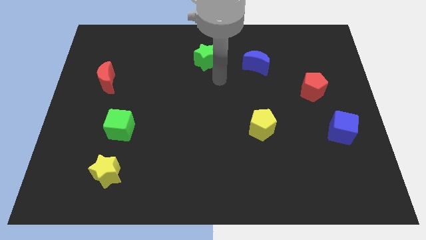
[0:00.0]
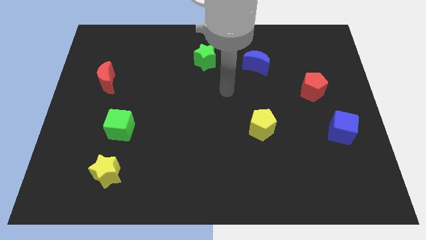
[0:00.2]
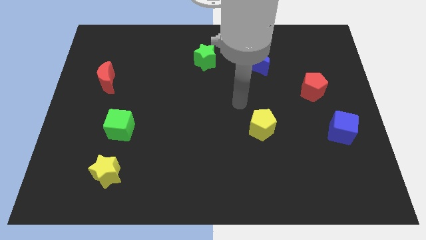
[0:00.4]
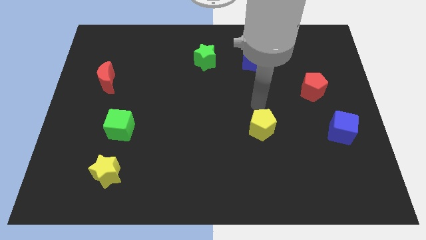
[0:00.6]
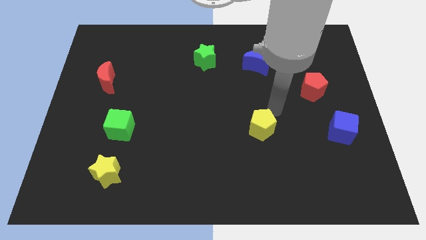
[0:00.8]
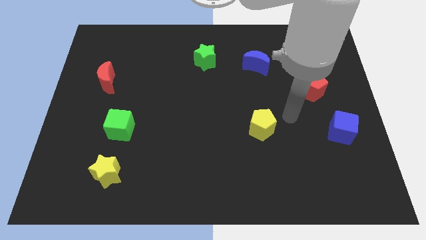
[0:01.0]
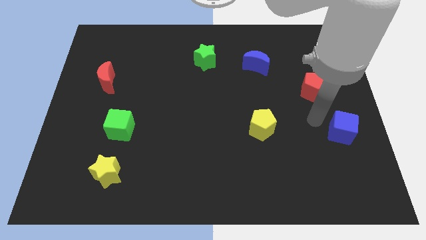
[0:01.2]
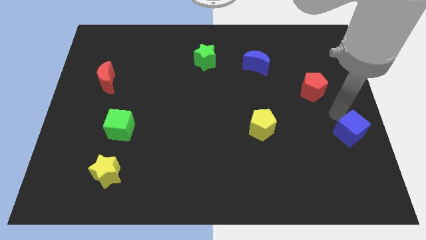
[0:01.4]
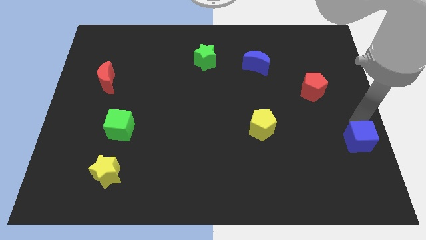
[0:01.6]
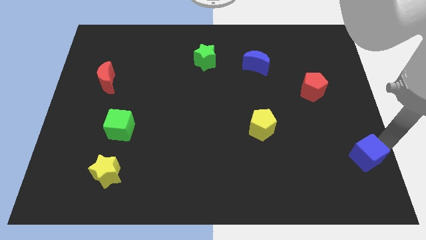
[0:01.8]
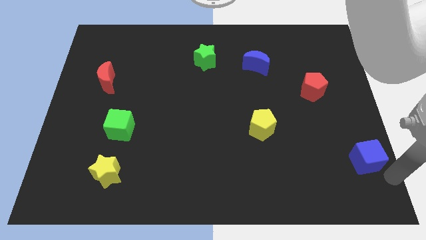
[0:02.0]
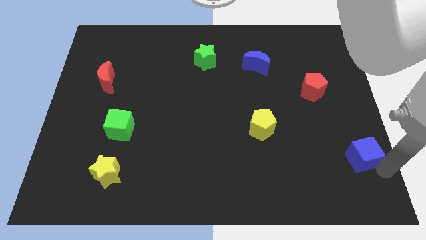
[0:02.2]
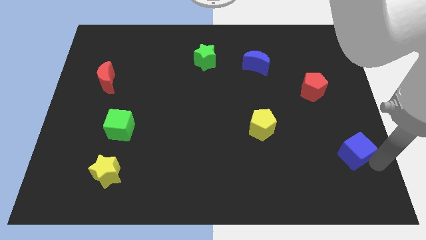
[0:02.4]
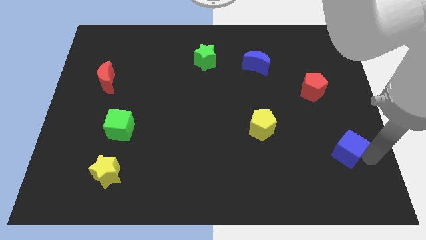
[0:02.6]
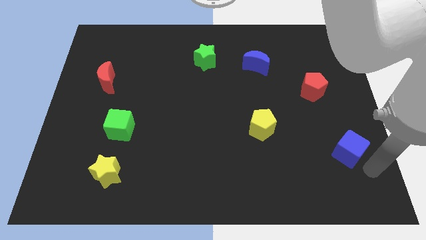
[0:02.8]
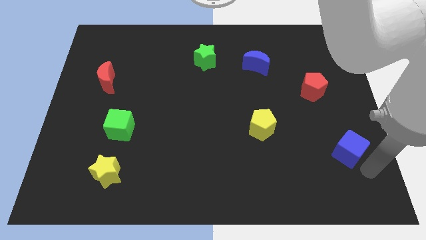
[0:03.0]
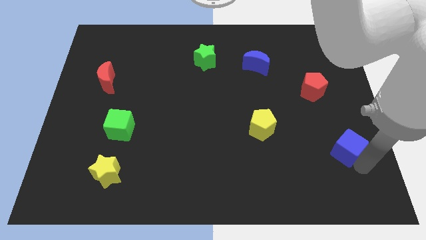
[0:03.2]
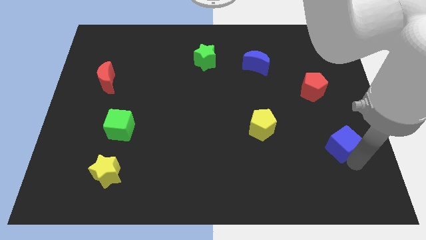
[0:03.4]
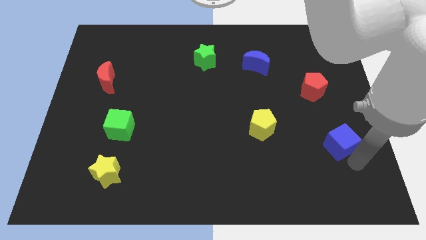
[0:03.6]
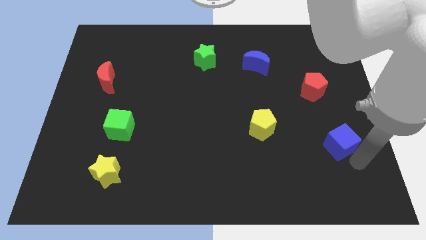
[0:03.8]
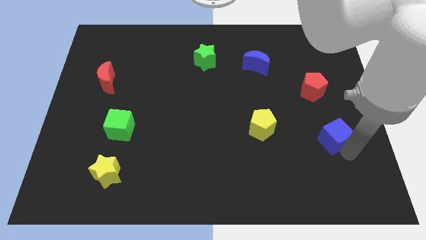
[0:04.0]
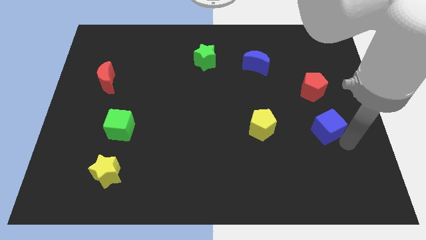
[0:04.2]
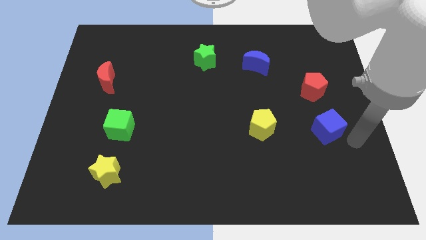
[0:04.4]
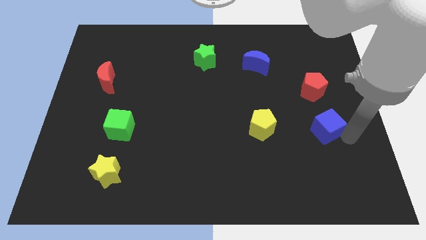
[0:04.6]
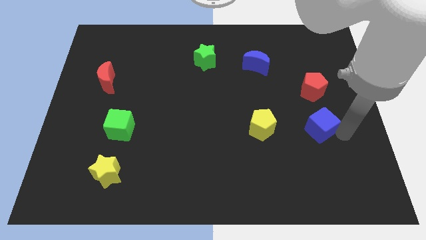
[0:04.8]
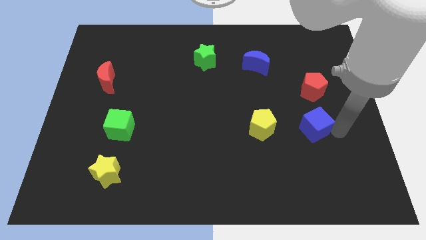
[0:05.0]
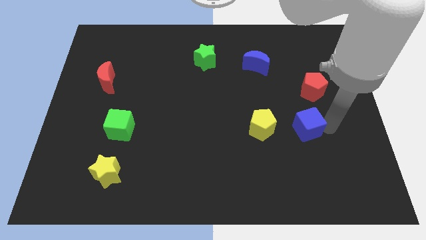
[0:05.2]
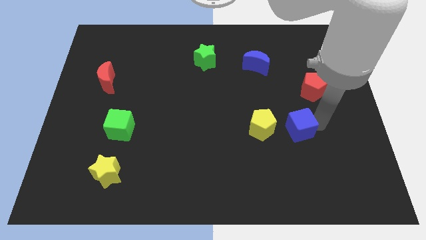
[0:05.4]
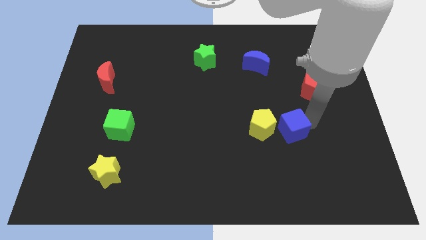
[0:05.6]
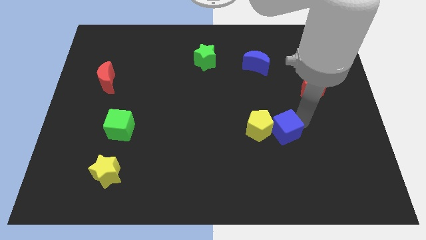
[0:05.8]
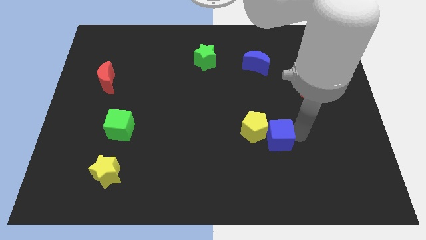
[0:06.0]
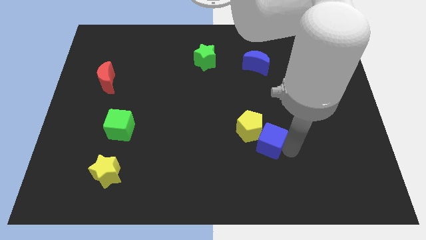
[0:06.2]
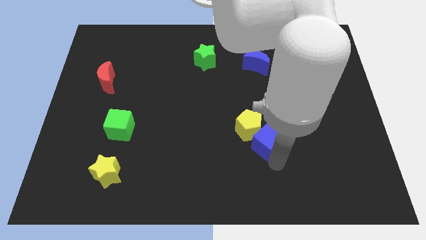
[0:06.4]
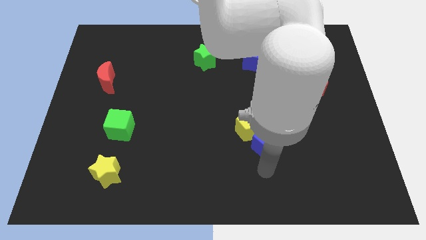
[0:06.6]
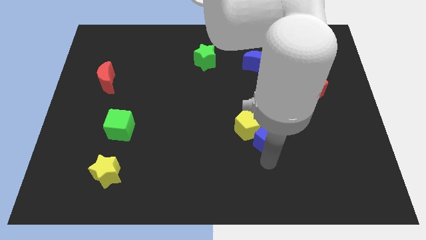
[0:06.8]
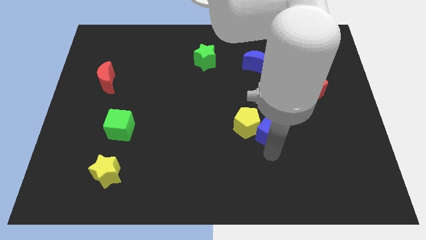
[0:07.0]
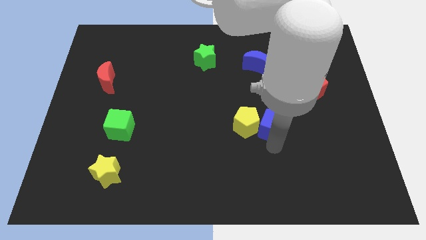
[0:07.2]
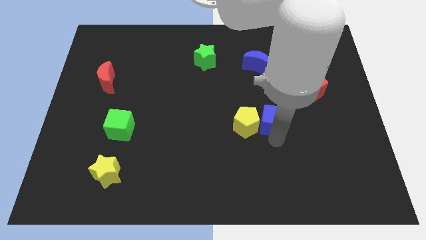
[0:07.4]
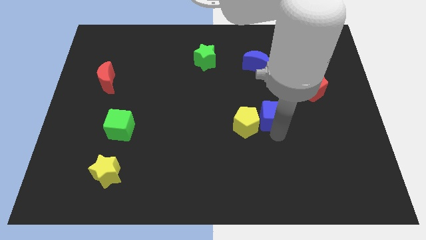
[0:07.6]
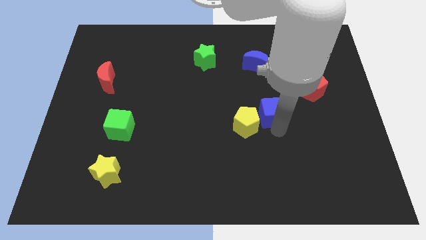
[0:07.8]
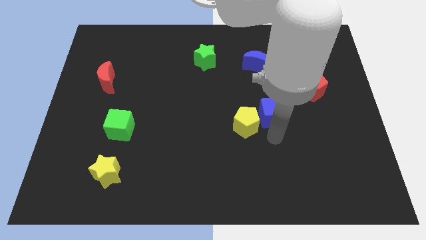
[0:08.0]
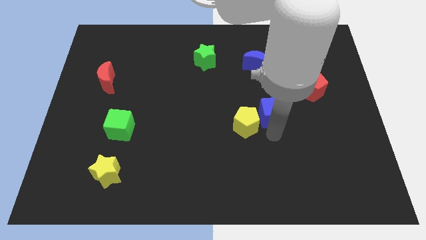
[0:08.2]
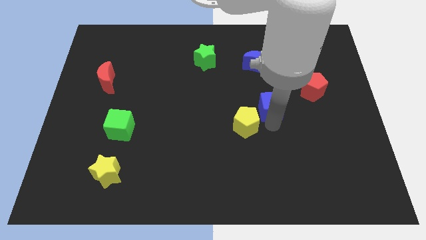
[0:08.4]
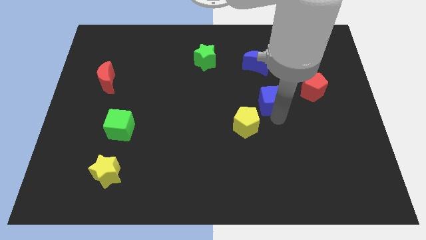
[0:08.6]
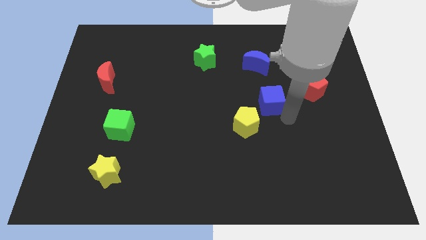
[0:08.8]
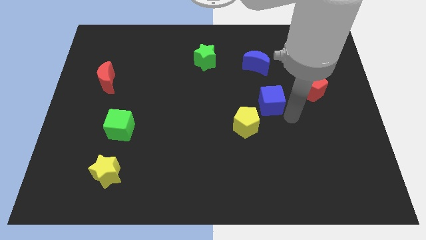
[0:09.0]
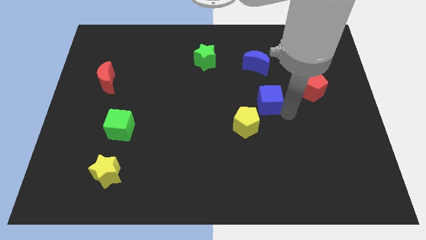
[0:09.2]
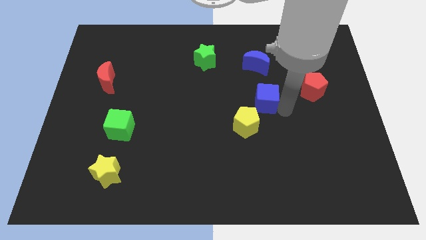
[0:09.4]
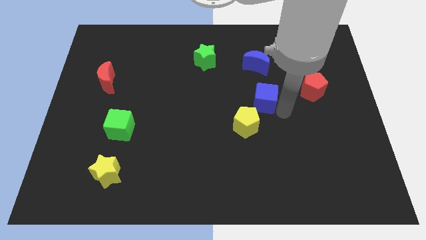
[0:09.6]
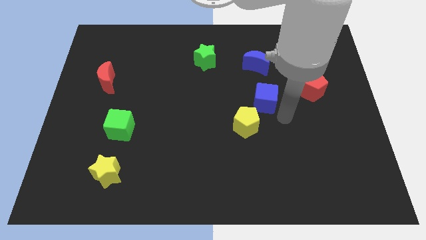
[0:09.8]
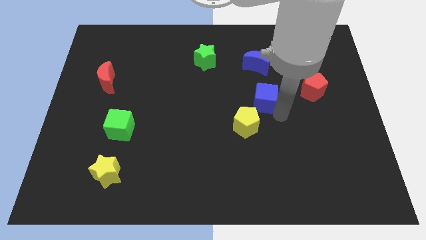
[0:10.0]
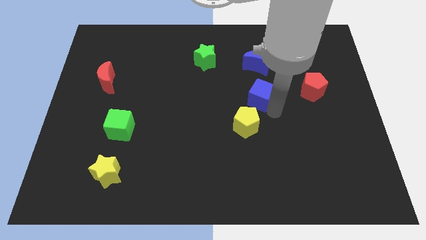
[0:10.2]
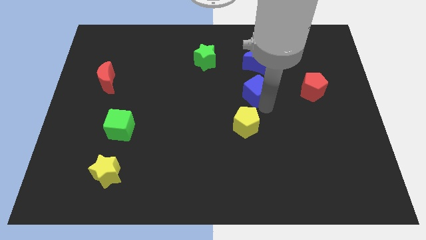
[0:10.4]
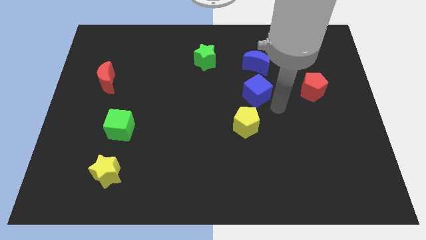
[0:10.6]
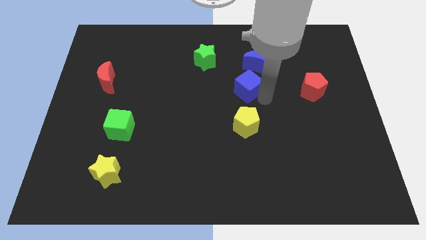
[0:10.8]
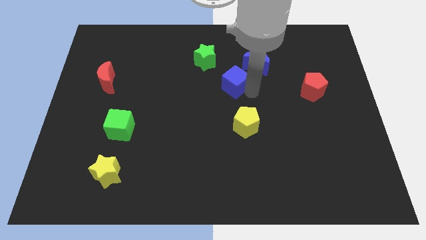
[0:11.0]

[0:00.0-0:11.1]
push the blue cube to the bottom right side of the green star

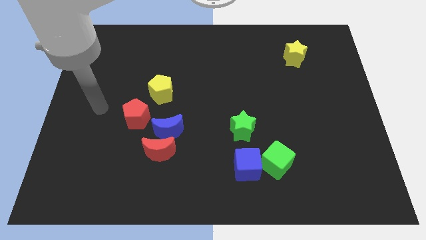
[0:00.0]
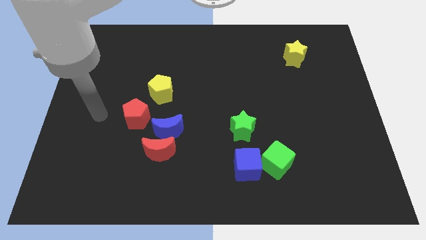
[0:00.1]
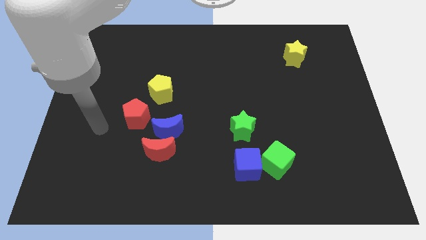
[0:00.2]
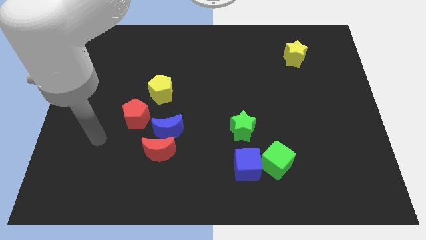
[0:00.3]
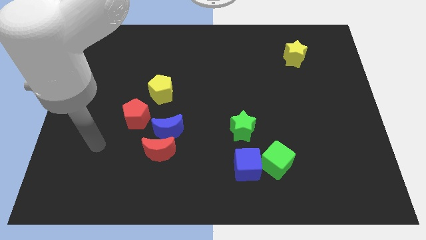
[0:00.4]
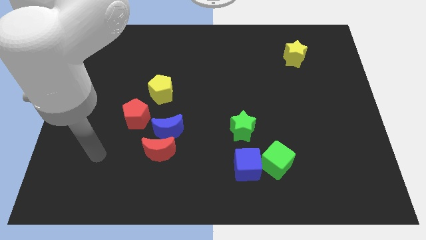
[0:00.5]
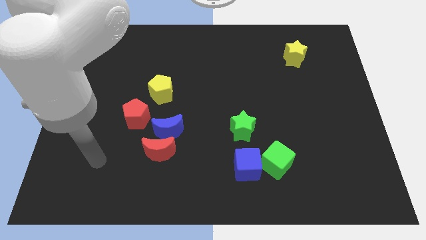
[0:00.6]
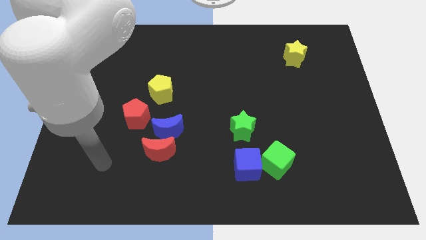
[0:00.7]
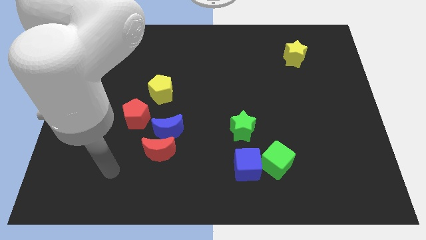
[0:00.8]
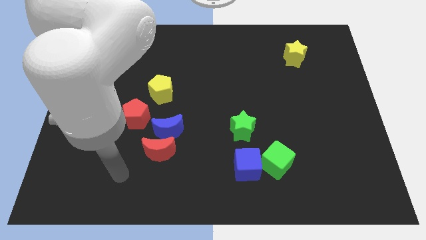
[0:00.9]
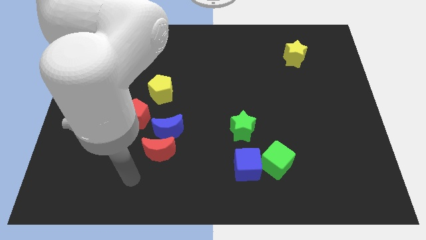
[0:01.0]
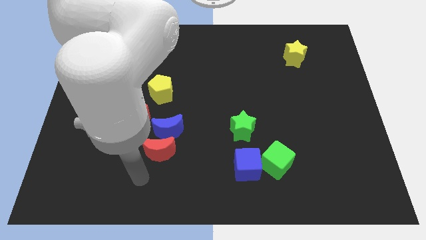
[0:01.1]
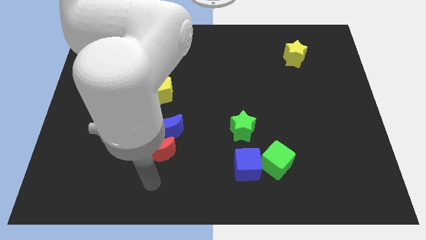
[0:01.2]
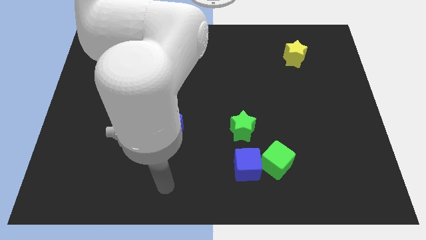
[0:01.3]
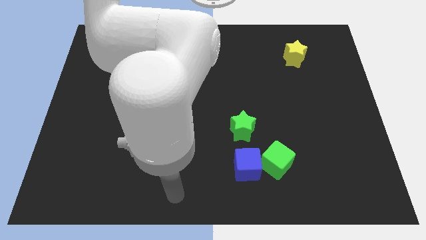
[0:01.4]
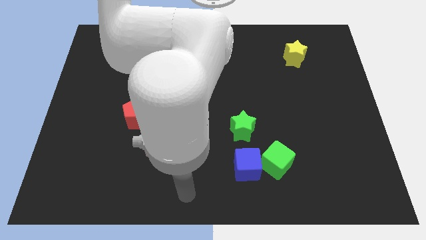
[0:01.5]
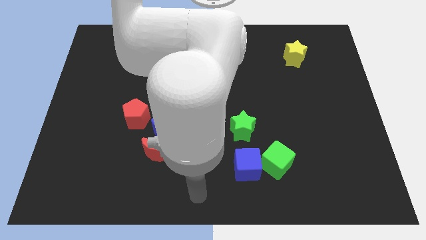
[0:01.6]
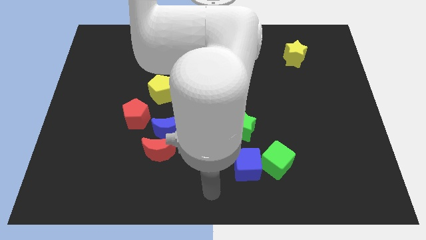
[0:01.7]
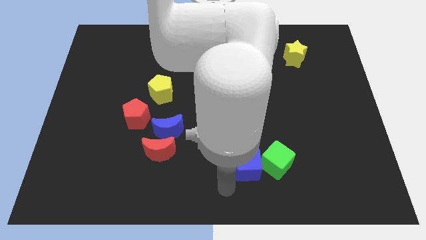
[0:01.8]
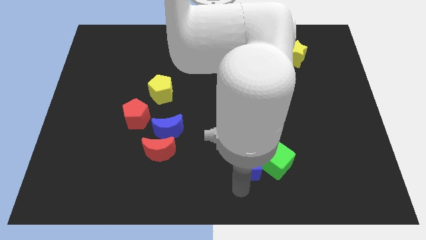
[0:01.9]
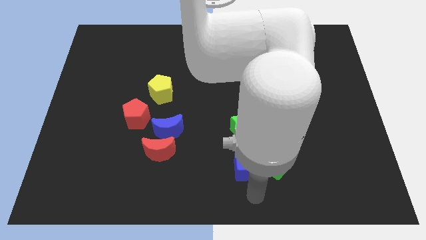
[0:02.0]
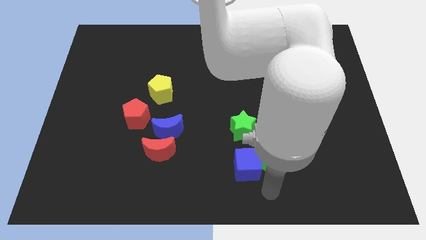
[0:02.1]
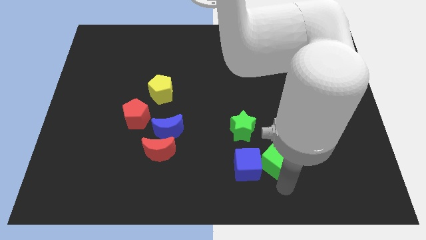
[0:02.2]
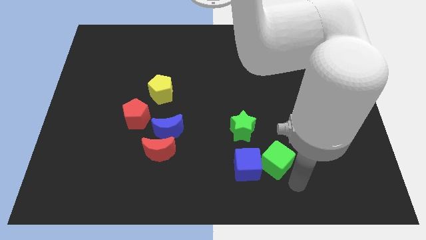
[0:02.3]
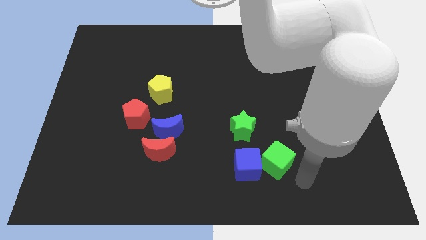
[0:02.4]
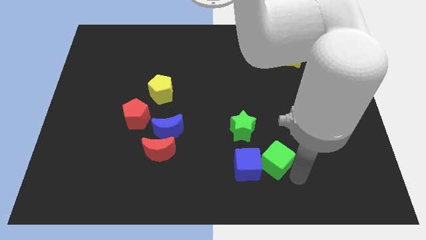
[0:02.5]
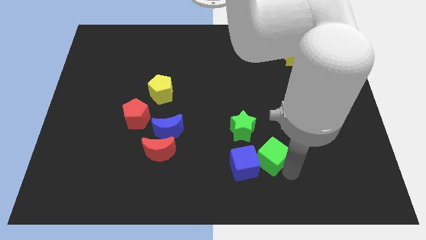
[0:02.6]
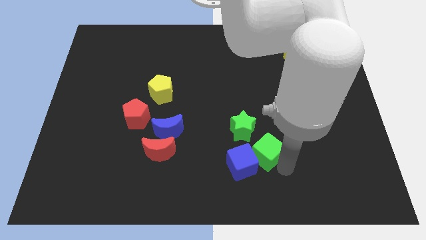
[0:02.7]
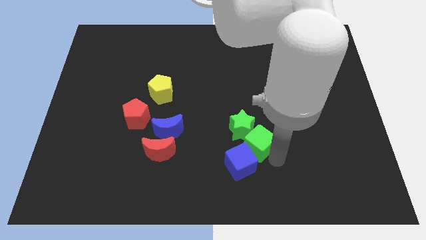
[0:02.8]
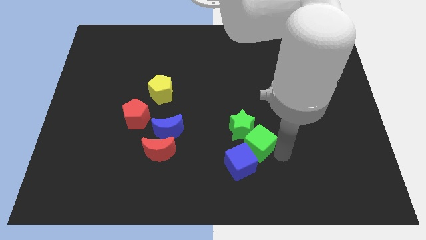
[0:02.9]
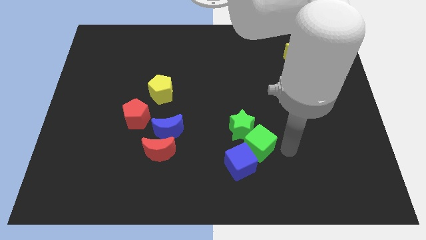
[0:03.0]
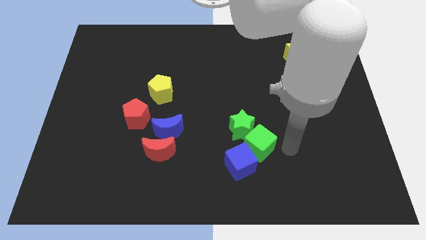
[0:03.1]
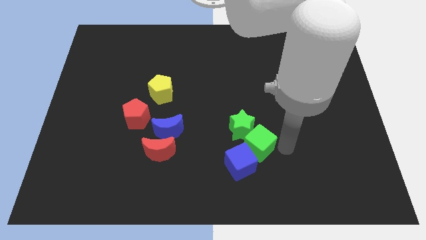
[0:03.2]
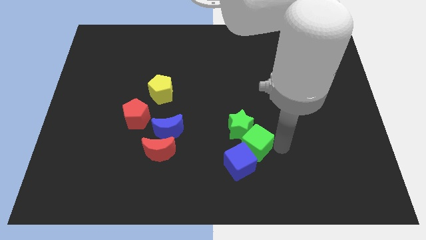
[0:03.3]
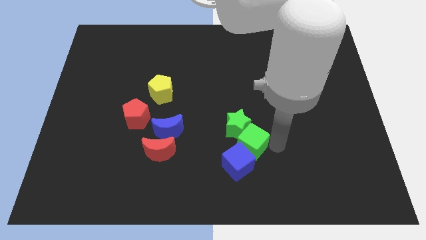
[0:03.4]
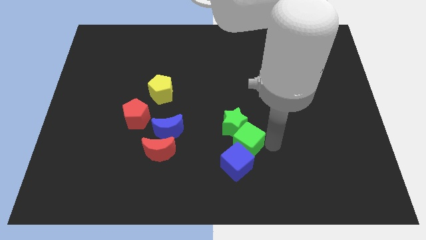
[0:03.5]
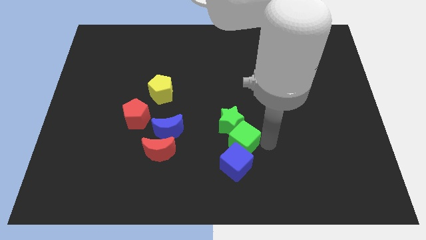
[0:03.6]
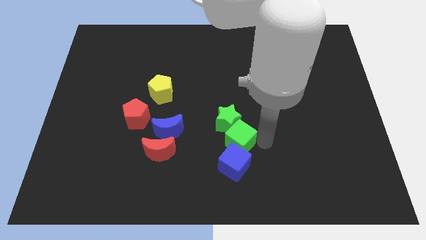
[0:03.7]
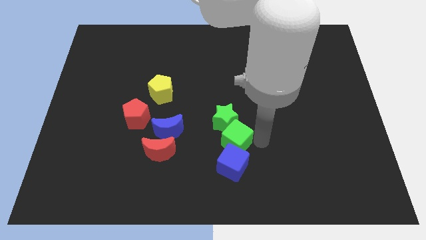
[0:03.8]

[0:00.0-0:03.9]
push the green cube diagonally up and to the left of the blue cube
